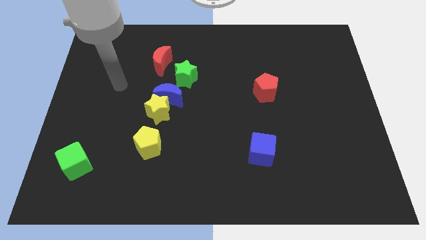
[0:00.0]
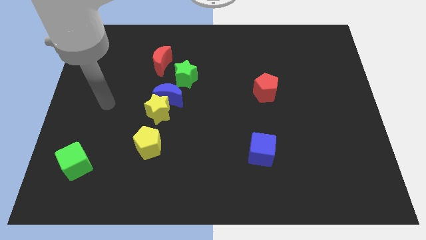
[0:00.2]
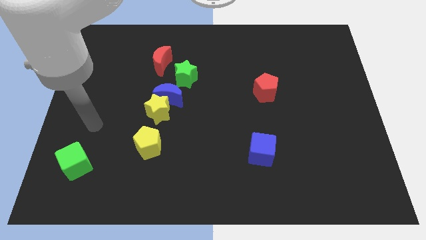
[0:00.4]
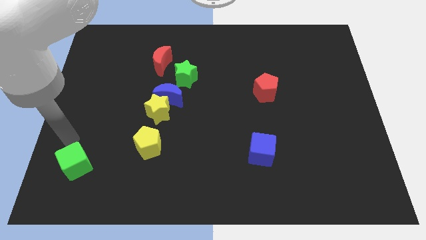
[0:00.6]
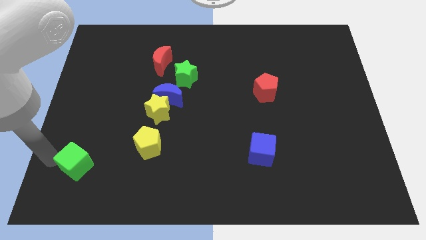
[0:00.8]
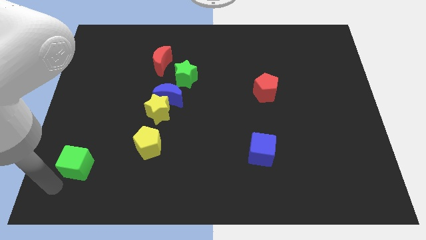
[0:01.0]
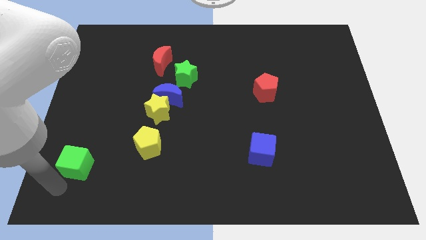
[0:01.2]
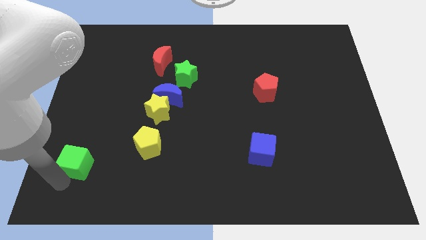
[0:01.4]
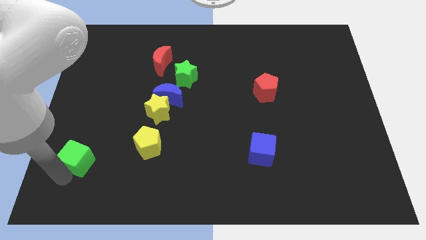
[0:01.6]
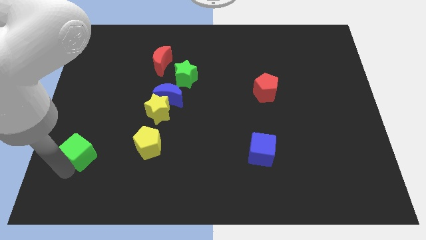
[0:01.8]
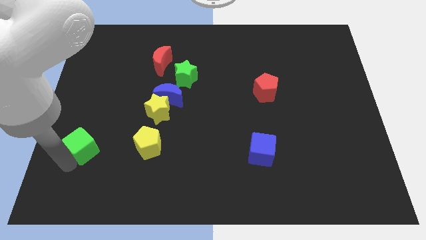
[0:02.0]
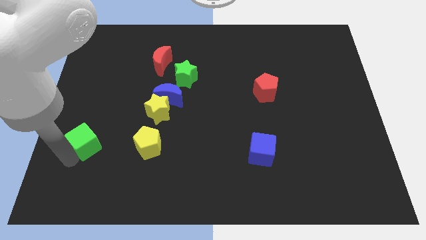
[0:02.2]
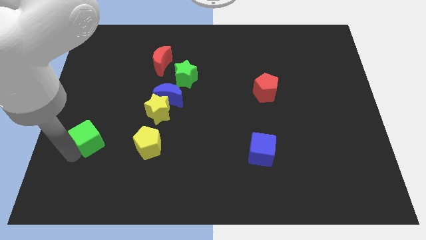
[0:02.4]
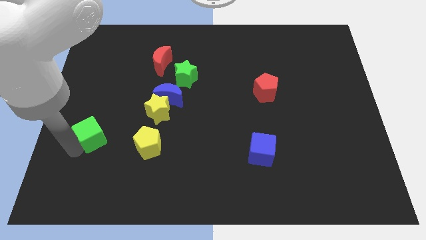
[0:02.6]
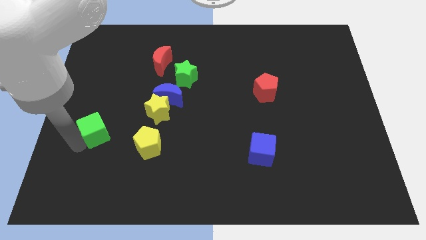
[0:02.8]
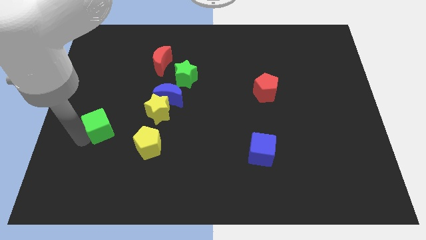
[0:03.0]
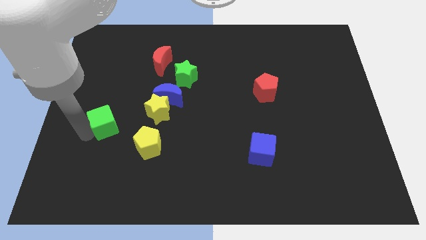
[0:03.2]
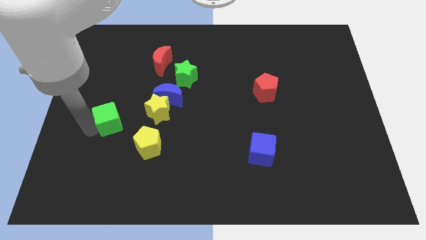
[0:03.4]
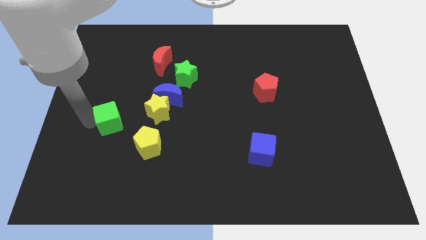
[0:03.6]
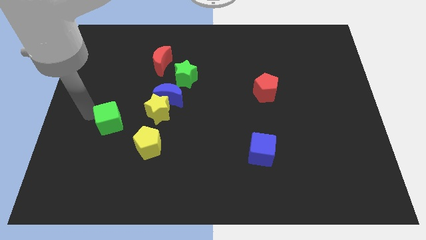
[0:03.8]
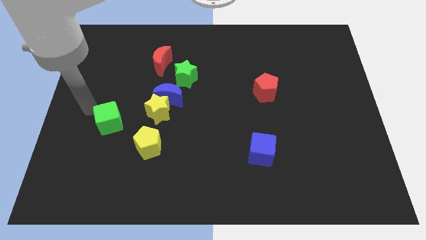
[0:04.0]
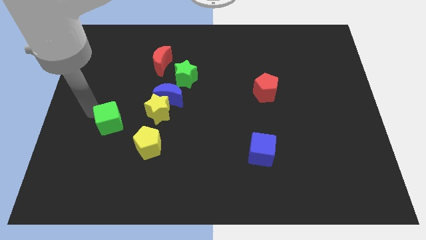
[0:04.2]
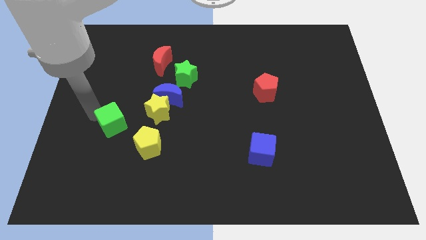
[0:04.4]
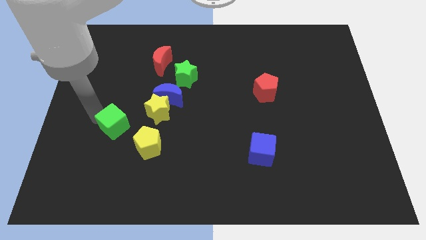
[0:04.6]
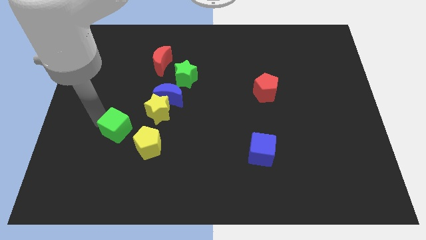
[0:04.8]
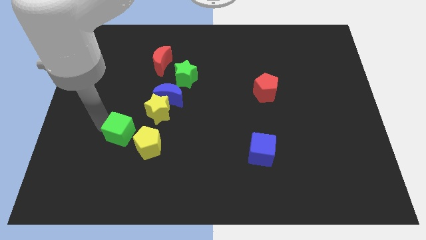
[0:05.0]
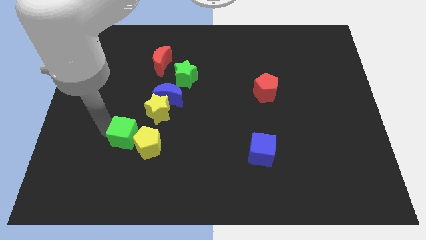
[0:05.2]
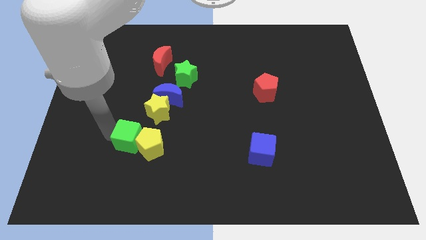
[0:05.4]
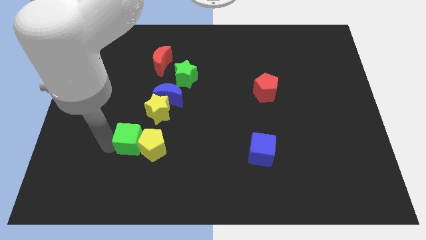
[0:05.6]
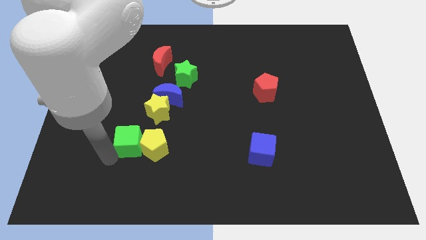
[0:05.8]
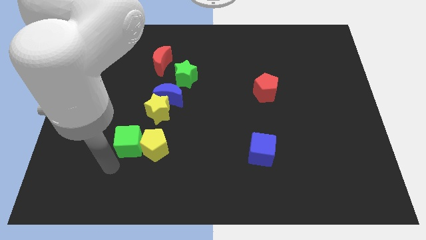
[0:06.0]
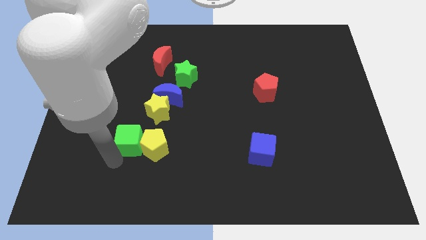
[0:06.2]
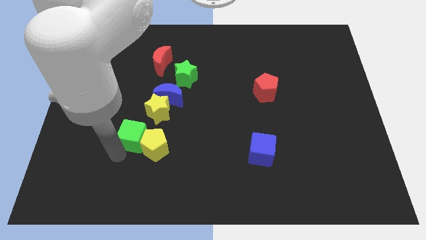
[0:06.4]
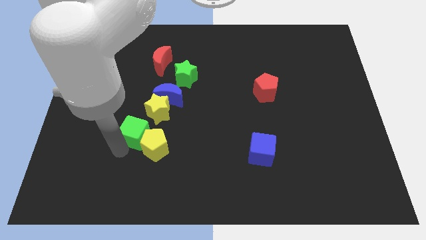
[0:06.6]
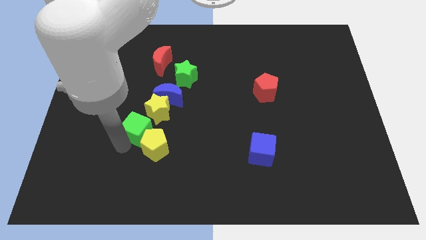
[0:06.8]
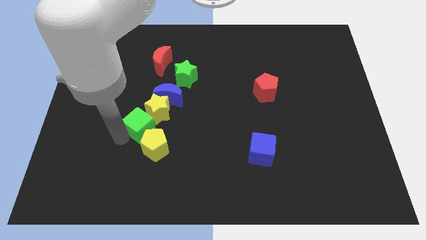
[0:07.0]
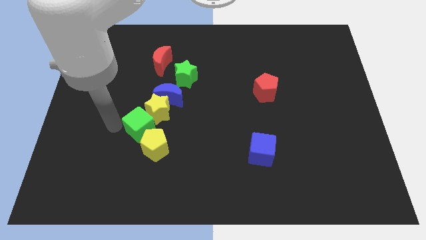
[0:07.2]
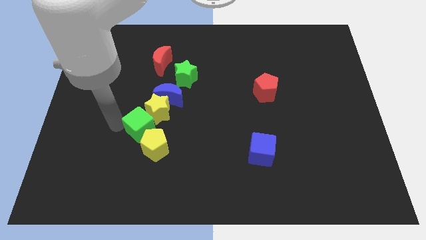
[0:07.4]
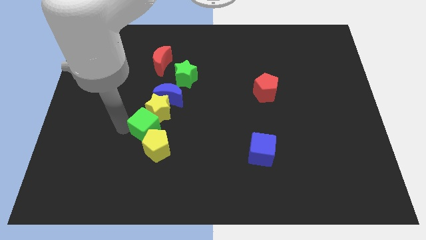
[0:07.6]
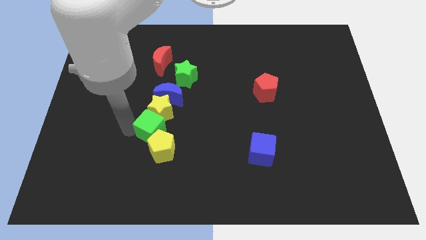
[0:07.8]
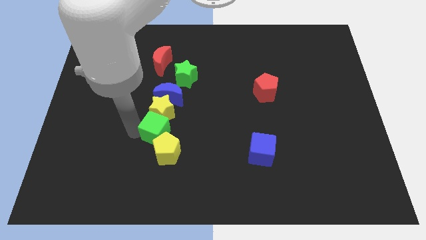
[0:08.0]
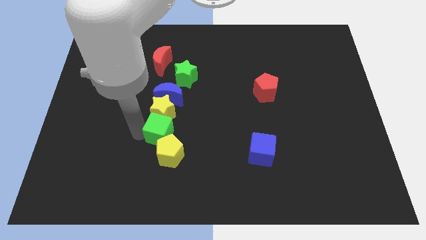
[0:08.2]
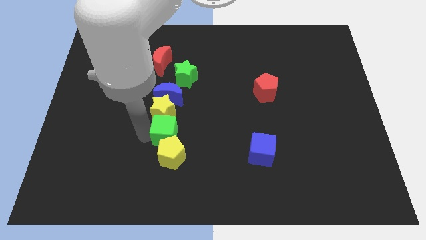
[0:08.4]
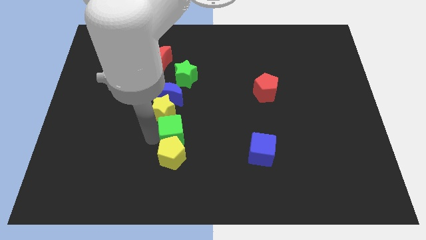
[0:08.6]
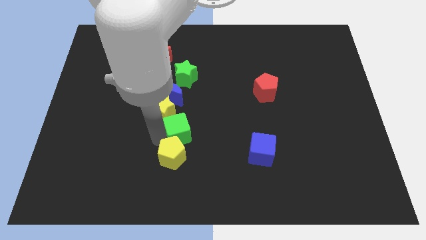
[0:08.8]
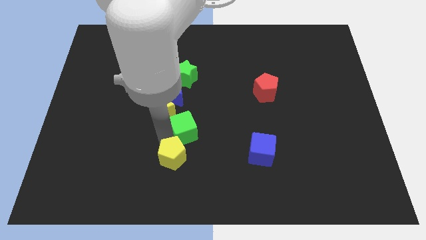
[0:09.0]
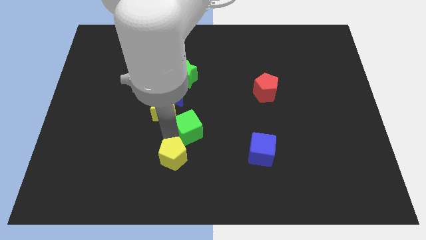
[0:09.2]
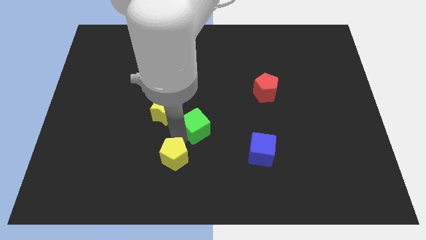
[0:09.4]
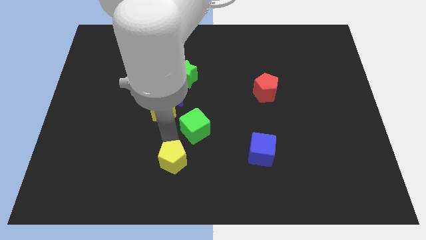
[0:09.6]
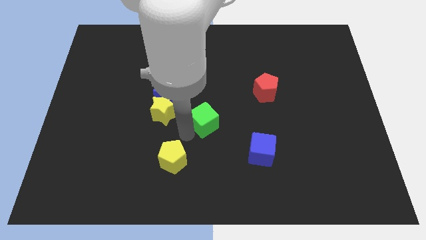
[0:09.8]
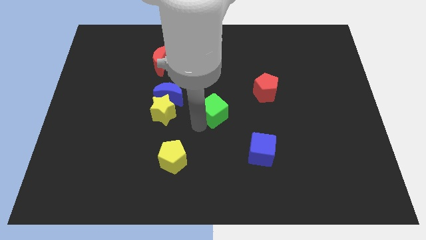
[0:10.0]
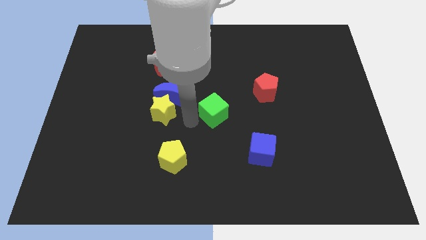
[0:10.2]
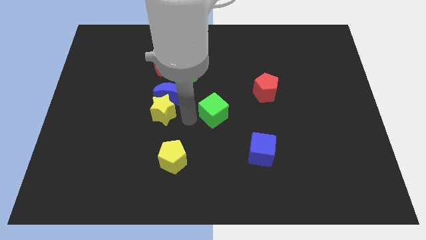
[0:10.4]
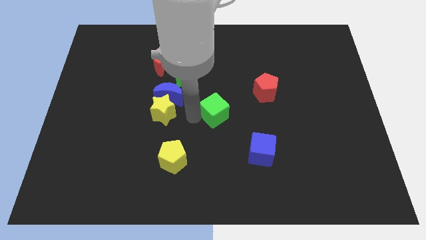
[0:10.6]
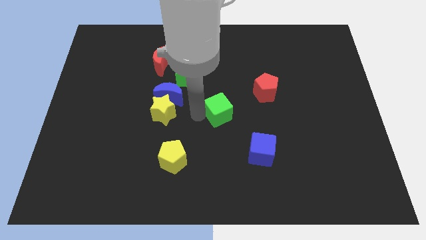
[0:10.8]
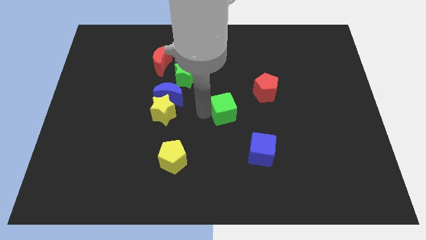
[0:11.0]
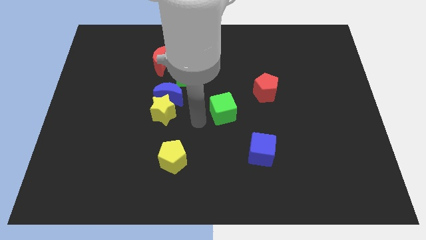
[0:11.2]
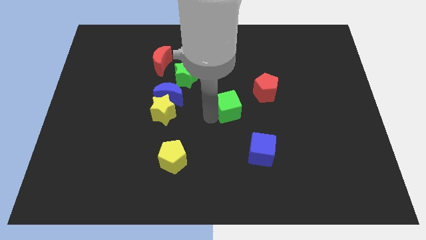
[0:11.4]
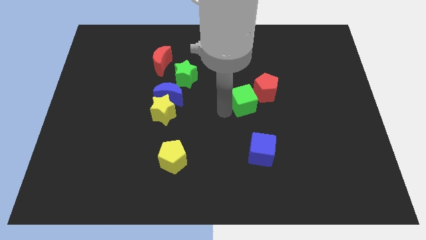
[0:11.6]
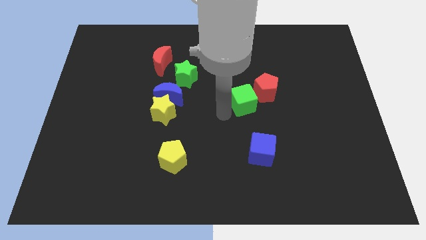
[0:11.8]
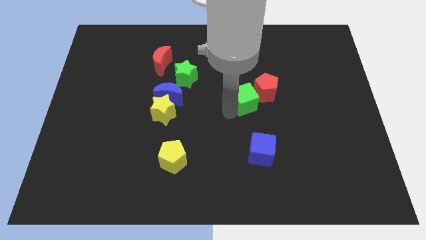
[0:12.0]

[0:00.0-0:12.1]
slide the green cube close to the red pentagon

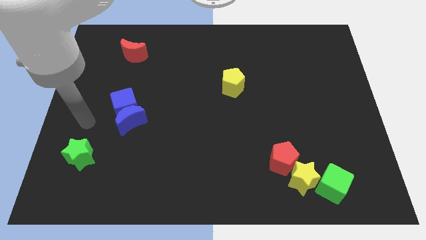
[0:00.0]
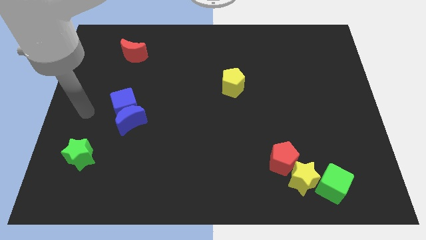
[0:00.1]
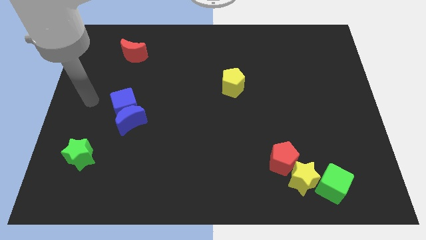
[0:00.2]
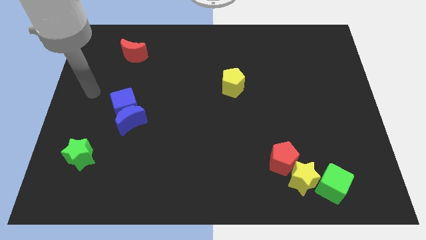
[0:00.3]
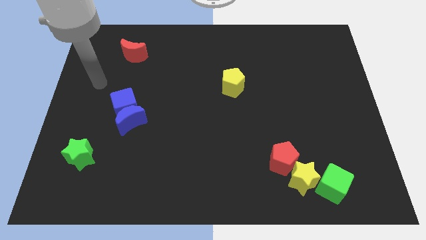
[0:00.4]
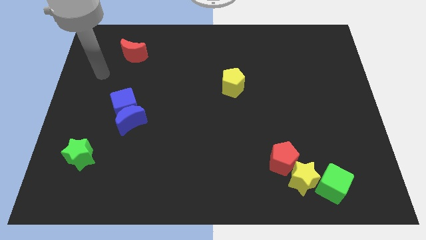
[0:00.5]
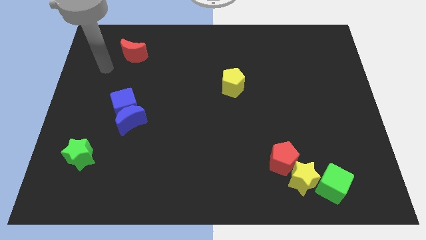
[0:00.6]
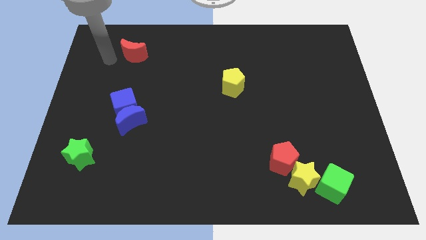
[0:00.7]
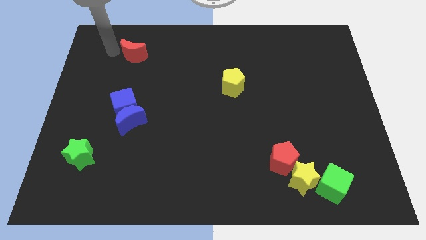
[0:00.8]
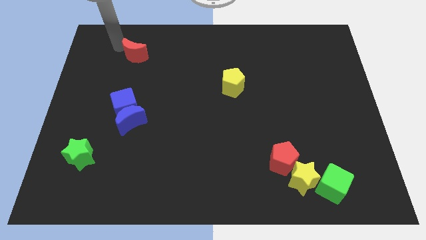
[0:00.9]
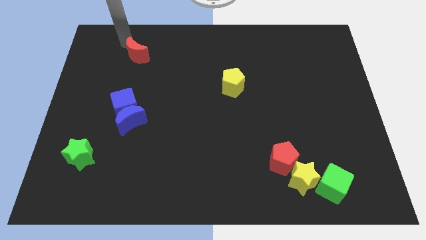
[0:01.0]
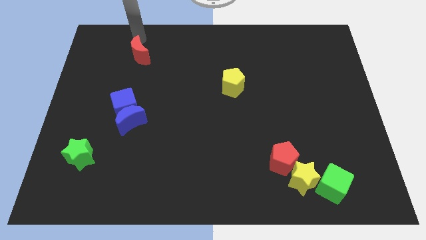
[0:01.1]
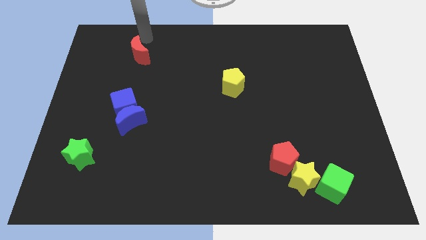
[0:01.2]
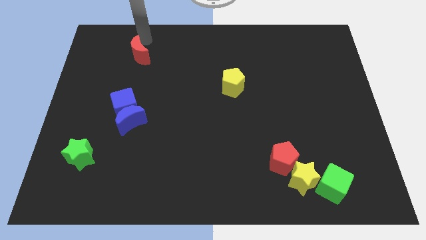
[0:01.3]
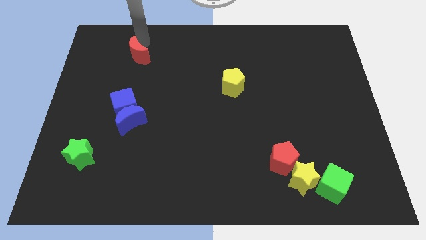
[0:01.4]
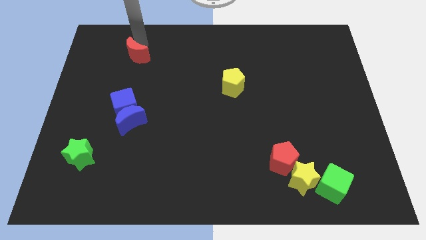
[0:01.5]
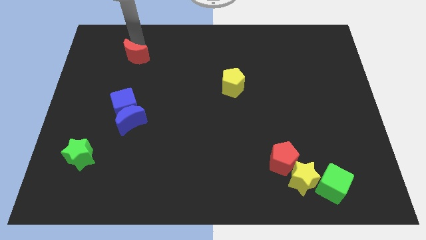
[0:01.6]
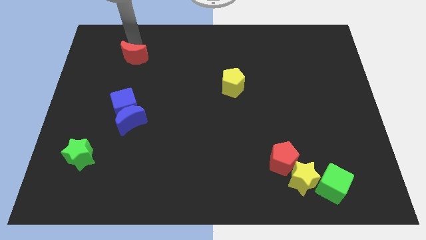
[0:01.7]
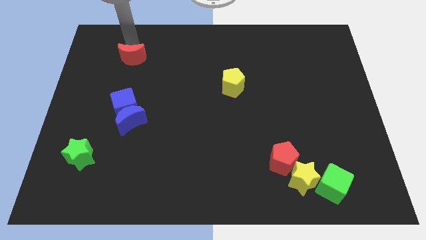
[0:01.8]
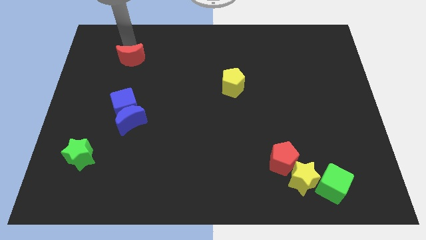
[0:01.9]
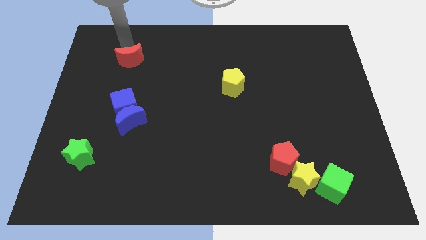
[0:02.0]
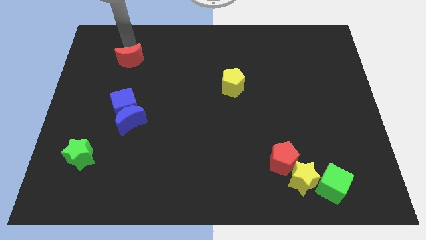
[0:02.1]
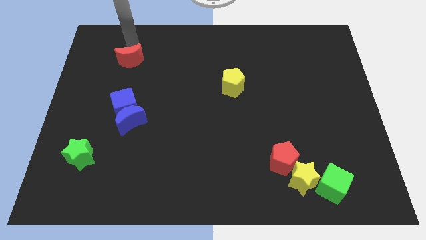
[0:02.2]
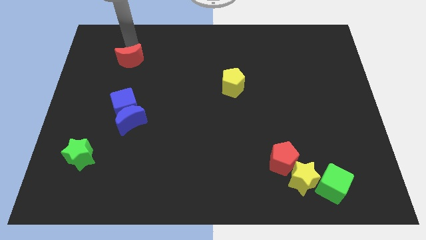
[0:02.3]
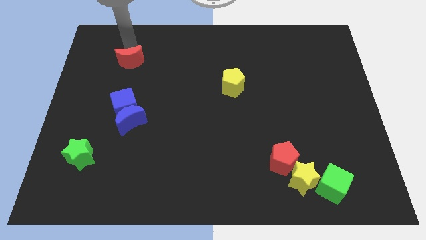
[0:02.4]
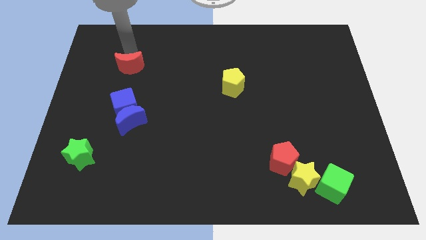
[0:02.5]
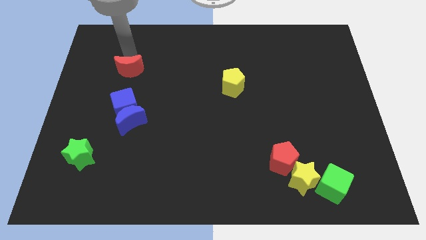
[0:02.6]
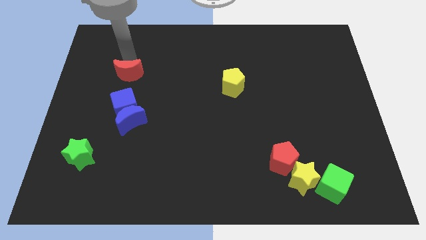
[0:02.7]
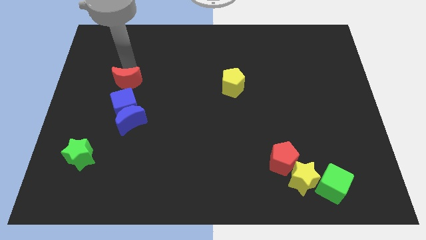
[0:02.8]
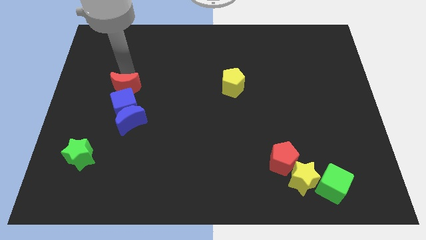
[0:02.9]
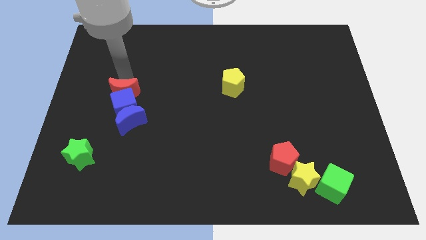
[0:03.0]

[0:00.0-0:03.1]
move the red moon next to the blue cube
